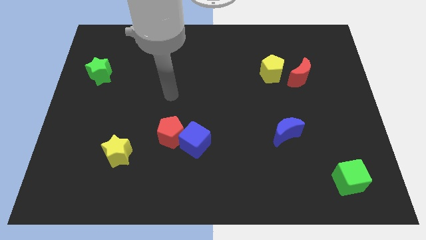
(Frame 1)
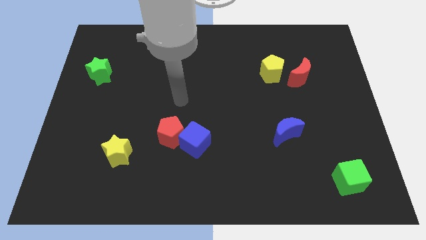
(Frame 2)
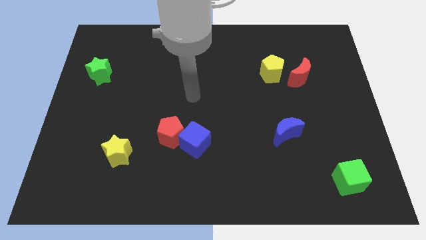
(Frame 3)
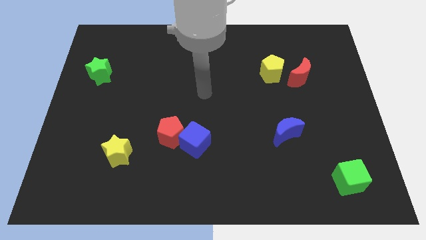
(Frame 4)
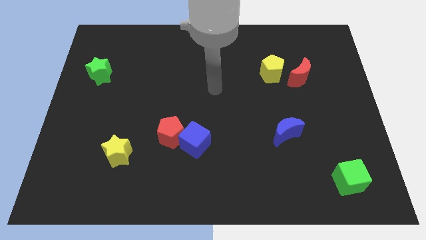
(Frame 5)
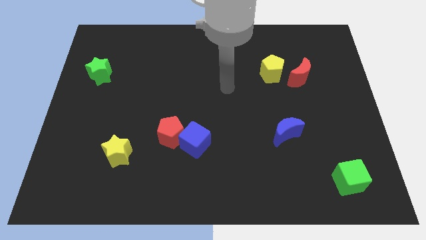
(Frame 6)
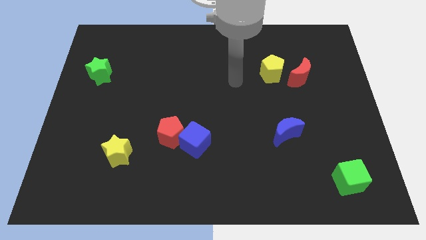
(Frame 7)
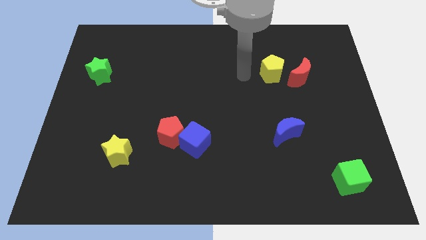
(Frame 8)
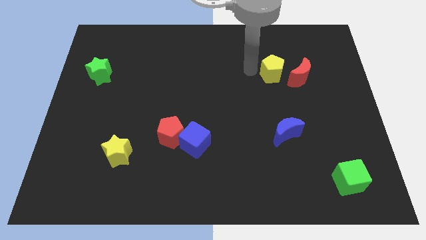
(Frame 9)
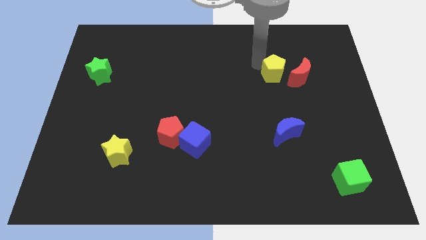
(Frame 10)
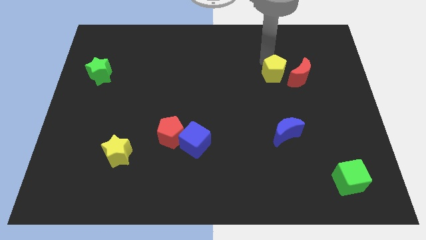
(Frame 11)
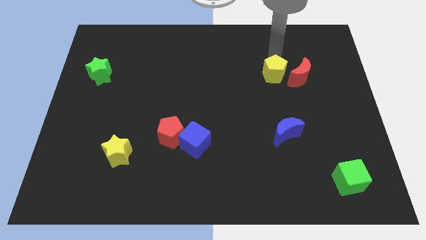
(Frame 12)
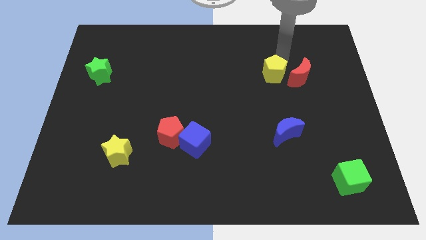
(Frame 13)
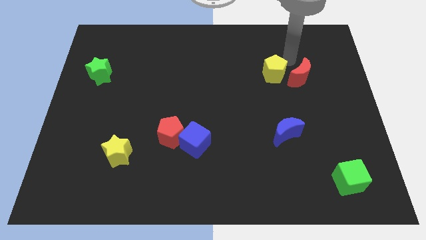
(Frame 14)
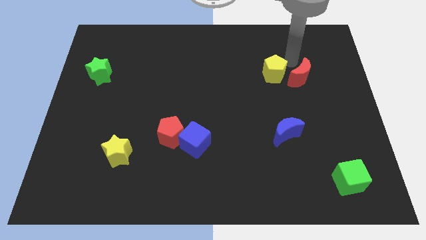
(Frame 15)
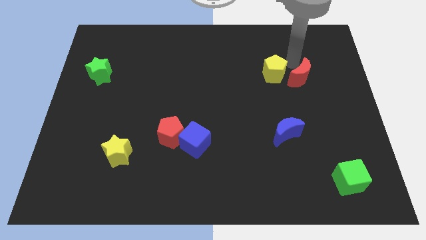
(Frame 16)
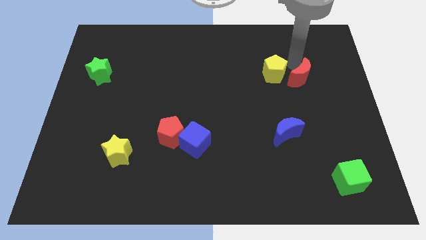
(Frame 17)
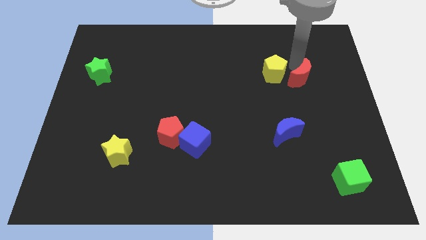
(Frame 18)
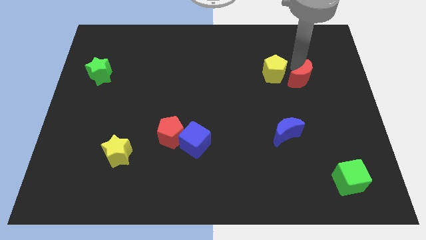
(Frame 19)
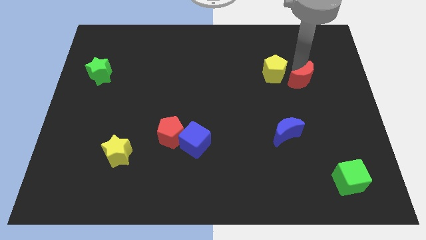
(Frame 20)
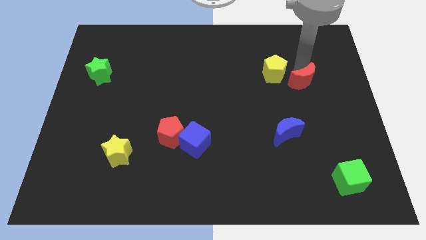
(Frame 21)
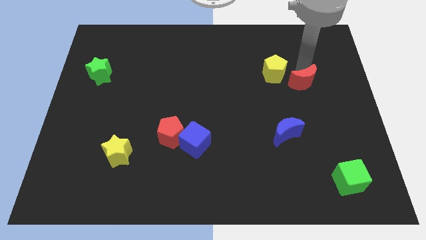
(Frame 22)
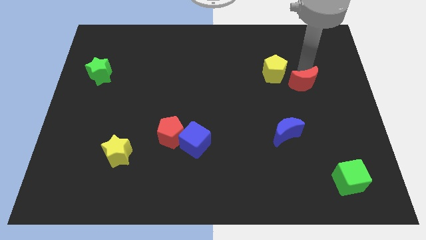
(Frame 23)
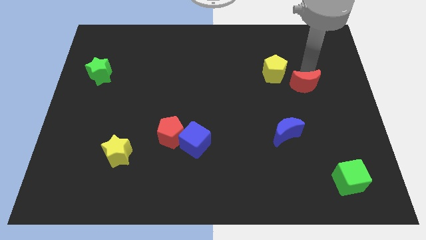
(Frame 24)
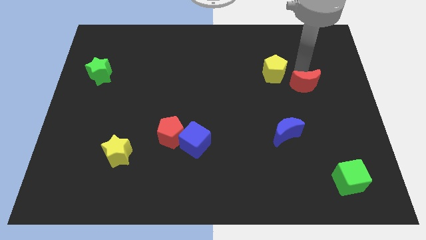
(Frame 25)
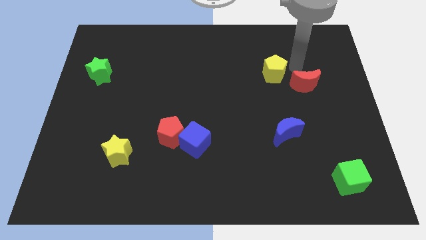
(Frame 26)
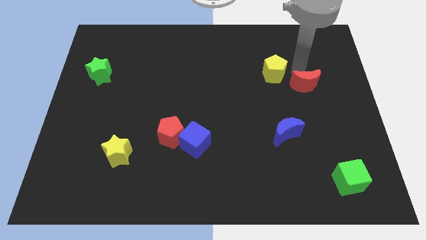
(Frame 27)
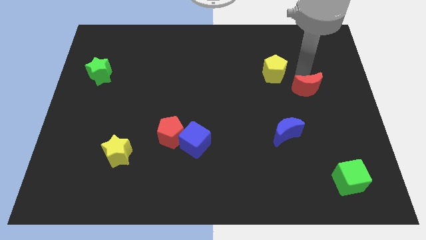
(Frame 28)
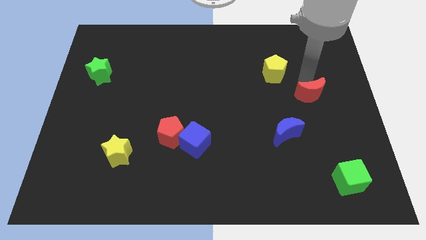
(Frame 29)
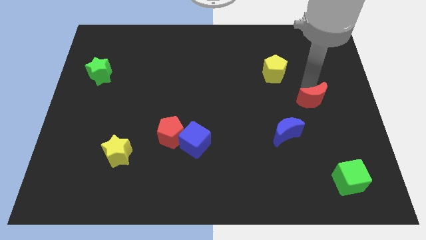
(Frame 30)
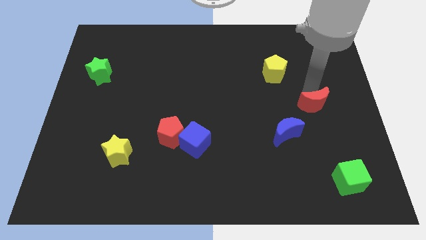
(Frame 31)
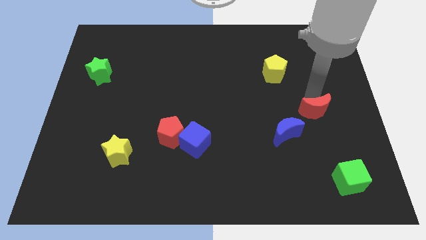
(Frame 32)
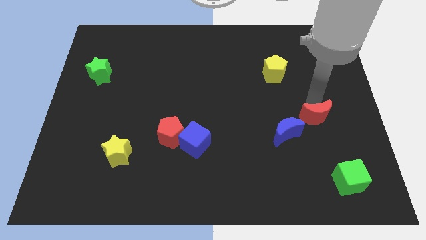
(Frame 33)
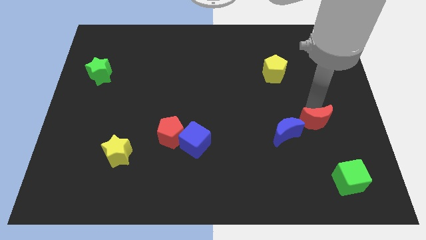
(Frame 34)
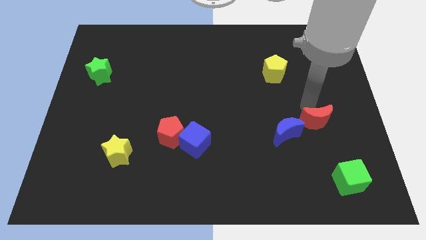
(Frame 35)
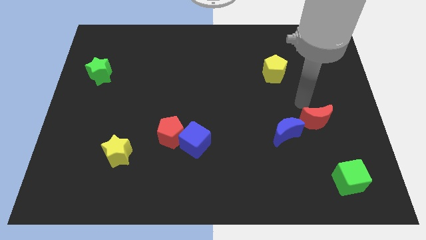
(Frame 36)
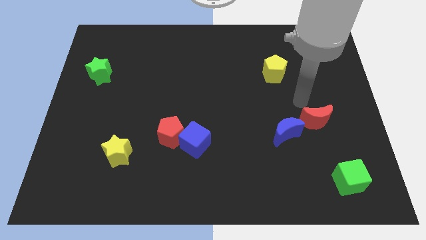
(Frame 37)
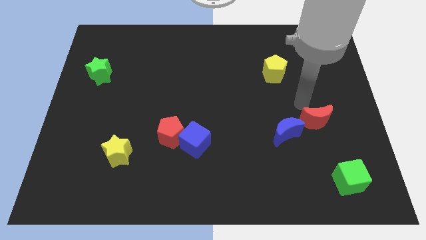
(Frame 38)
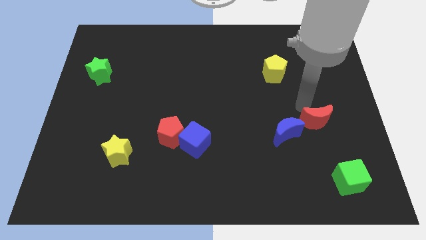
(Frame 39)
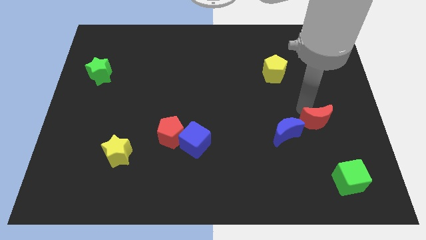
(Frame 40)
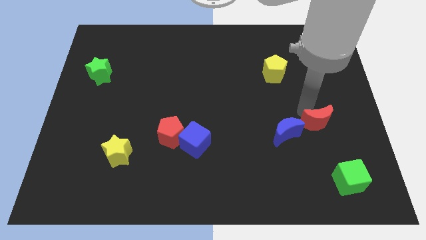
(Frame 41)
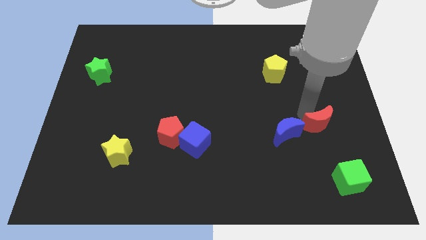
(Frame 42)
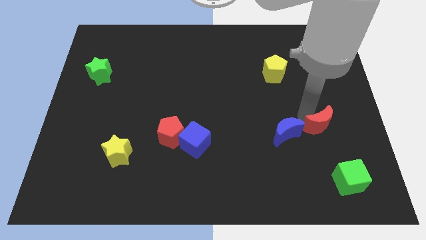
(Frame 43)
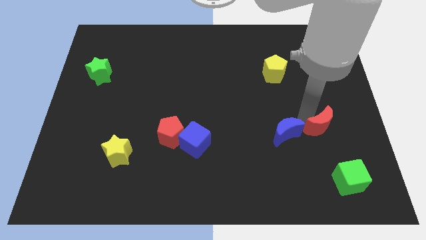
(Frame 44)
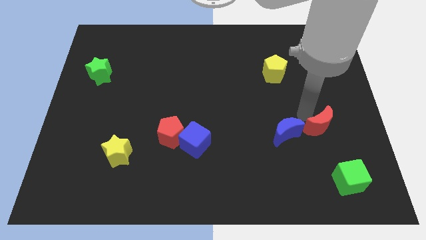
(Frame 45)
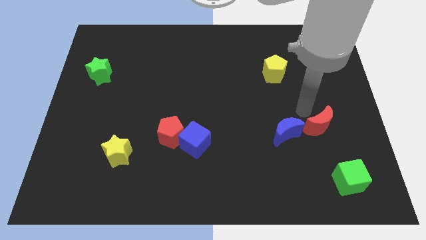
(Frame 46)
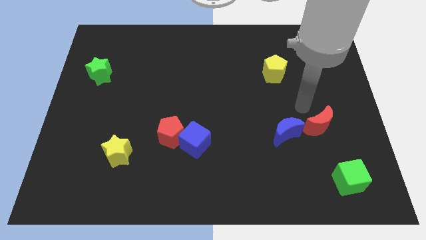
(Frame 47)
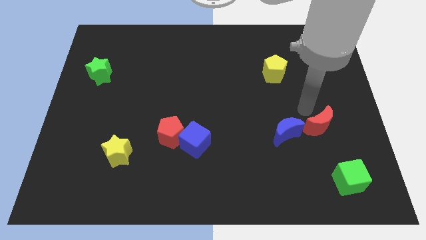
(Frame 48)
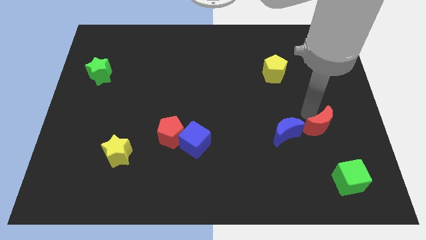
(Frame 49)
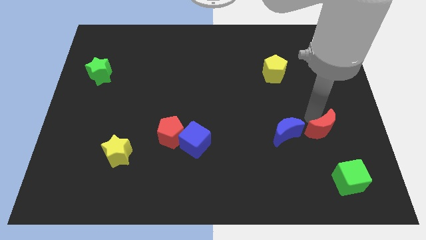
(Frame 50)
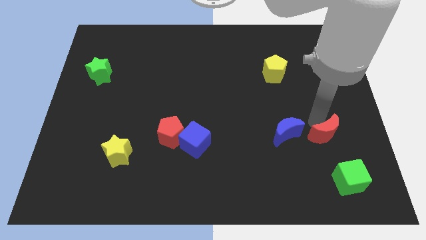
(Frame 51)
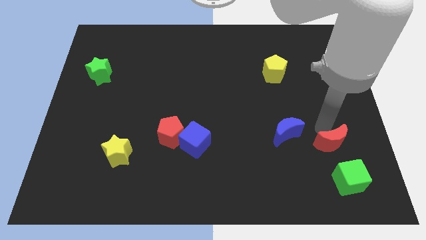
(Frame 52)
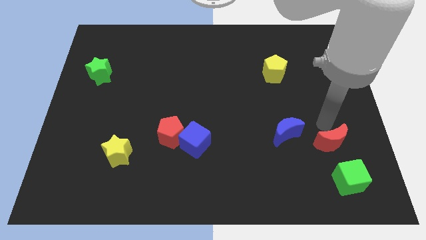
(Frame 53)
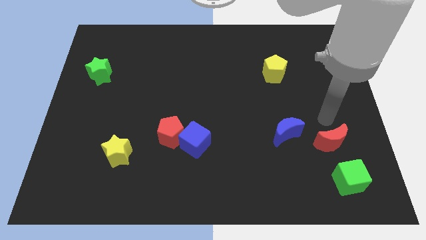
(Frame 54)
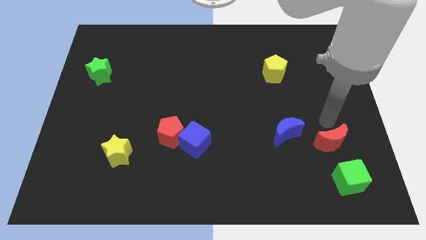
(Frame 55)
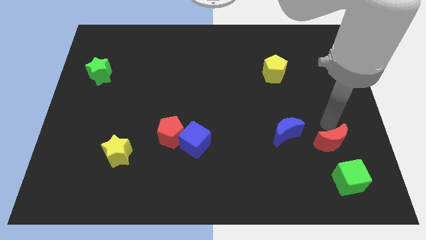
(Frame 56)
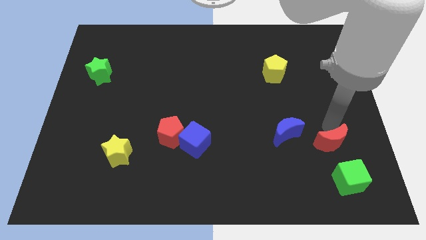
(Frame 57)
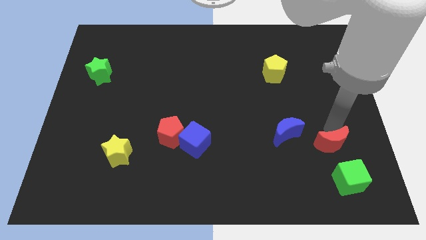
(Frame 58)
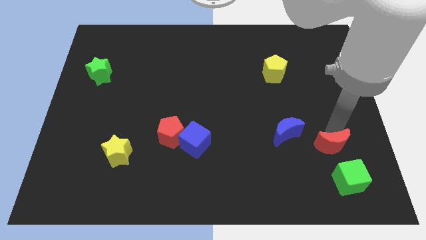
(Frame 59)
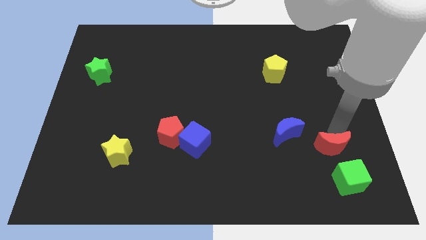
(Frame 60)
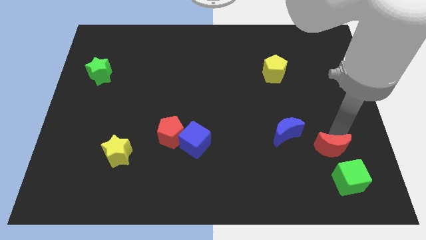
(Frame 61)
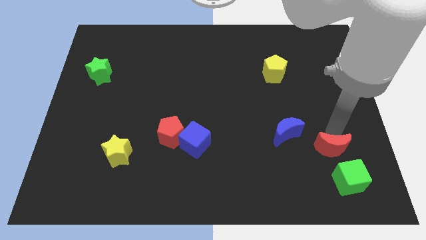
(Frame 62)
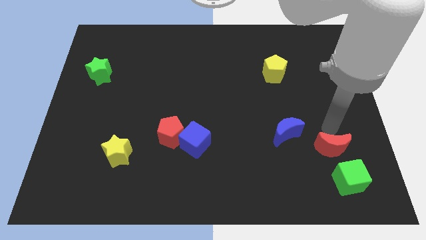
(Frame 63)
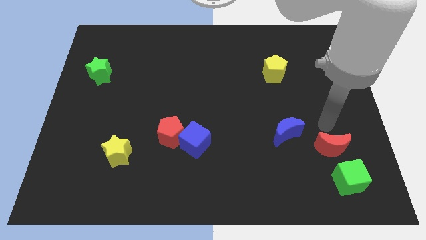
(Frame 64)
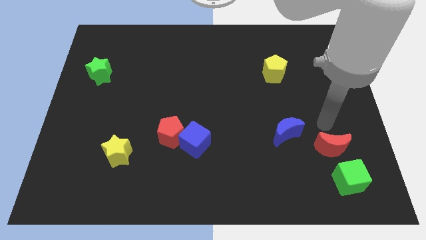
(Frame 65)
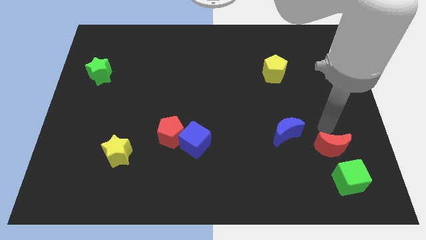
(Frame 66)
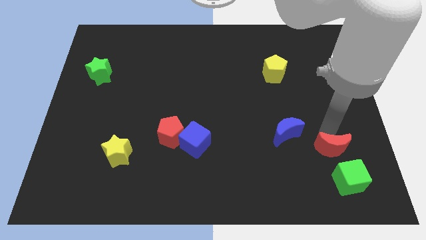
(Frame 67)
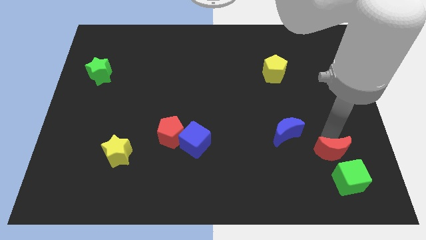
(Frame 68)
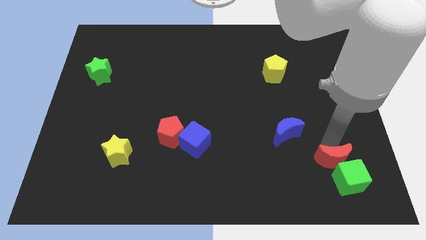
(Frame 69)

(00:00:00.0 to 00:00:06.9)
slide the red moon towards the green cube
